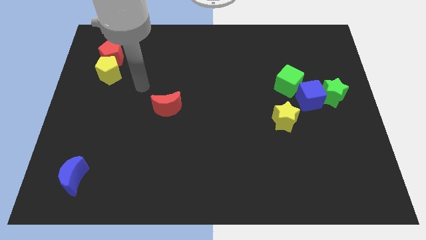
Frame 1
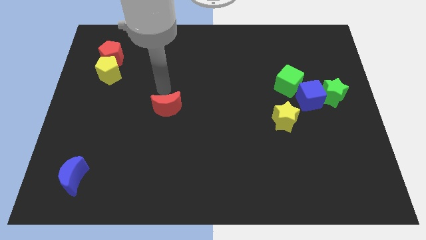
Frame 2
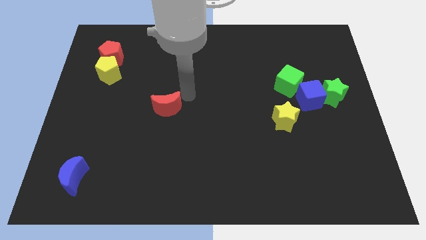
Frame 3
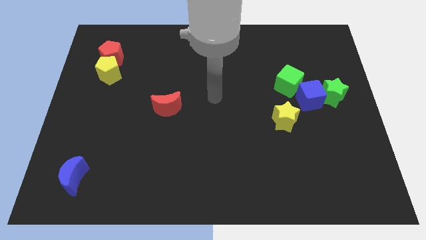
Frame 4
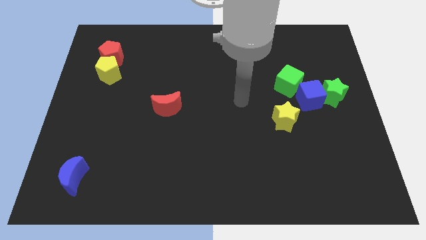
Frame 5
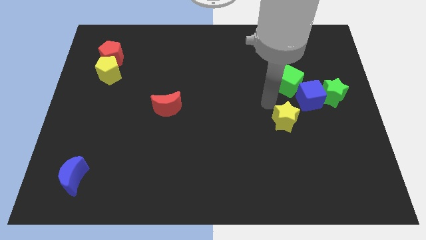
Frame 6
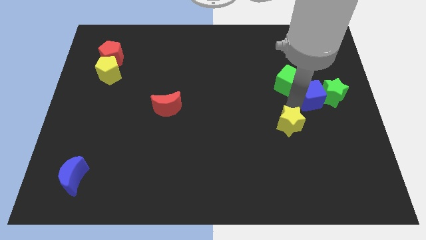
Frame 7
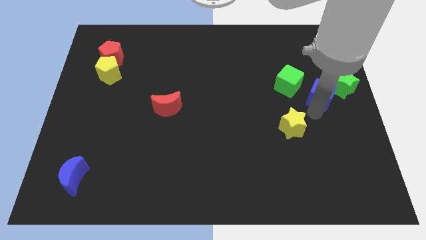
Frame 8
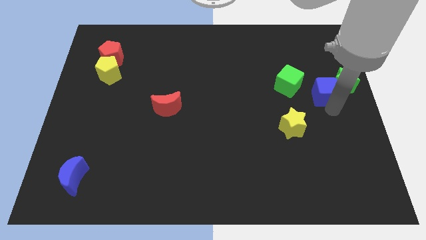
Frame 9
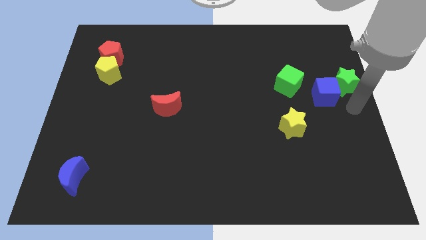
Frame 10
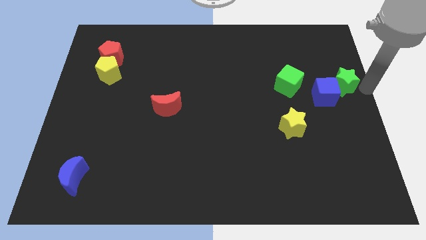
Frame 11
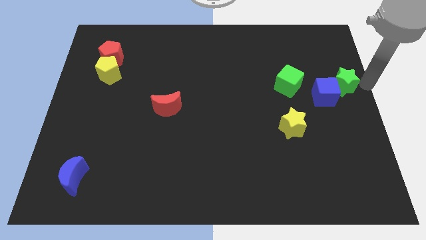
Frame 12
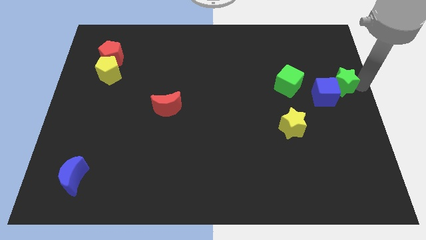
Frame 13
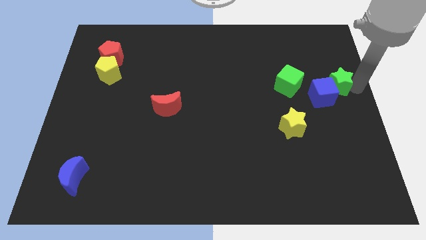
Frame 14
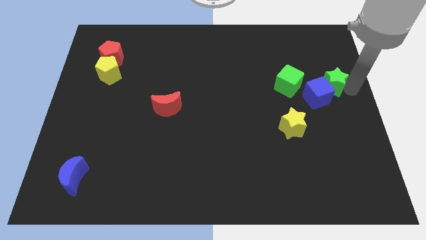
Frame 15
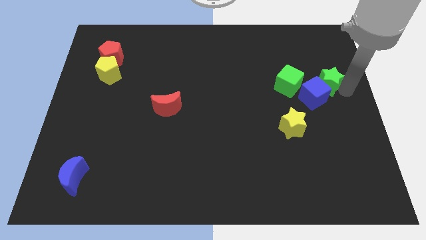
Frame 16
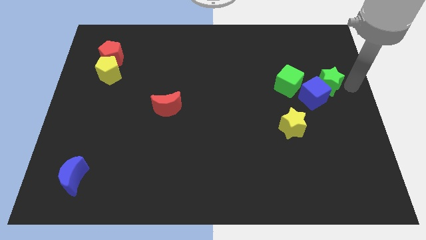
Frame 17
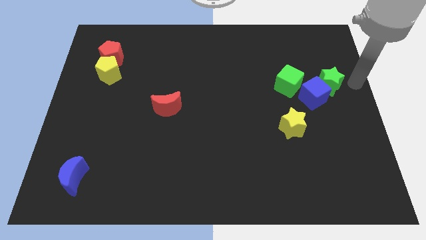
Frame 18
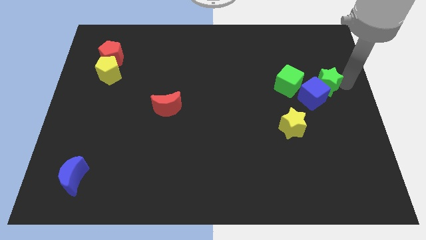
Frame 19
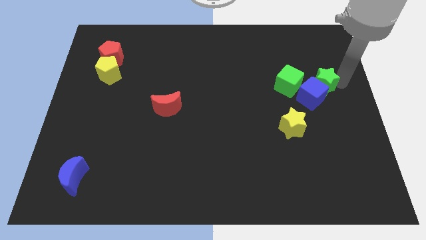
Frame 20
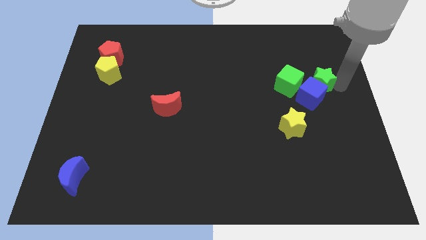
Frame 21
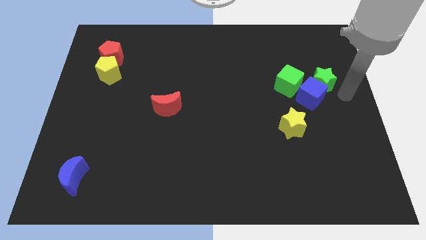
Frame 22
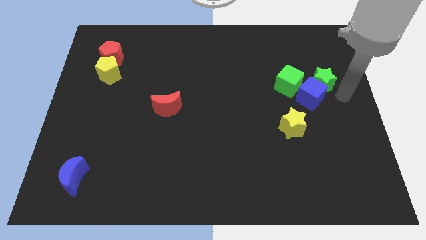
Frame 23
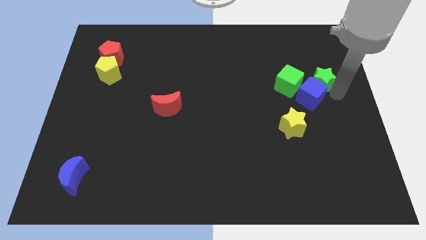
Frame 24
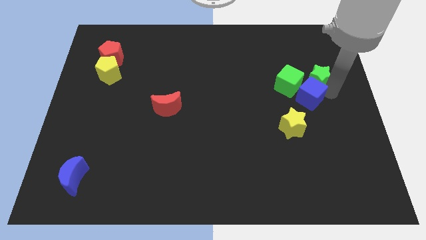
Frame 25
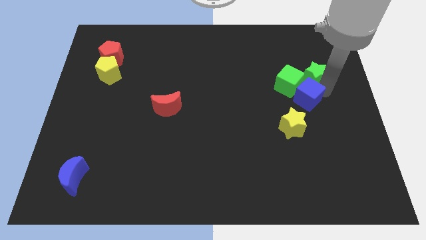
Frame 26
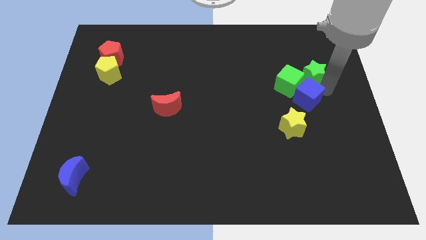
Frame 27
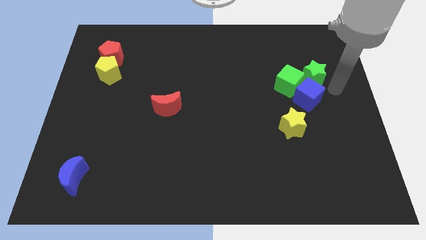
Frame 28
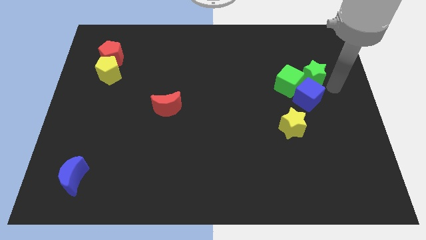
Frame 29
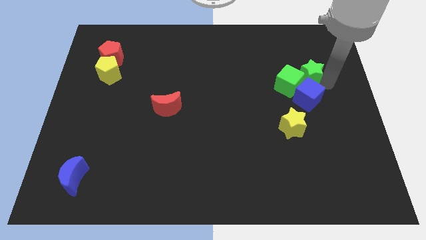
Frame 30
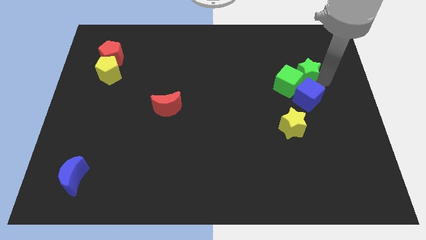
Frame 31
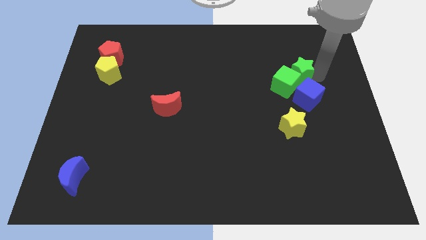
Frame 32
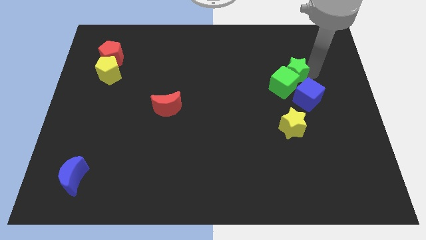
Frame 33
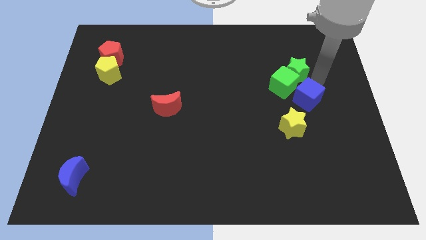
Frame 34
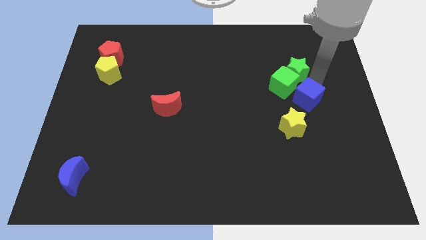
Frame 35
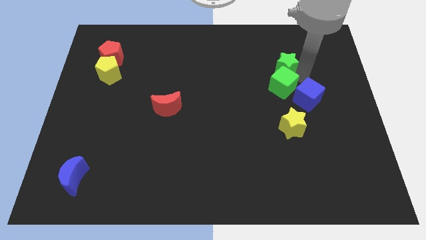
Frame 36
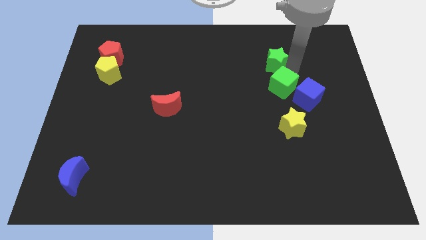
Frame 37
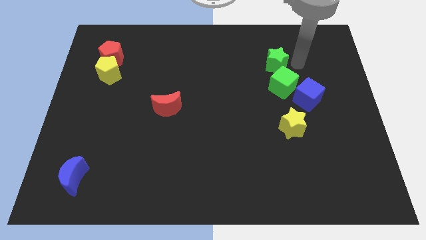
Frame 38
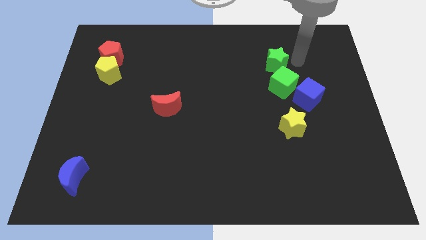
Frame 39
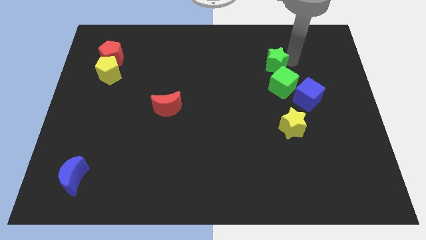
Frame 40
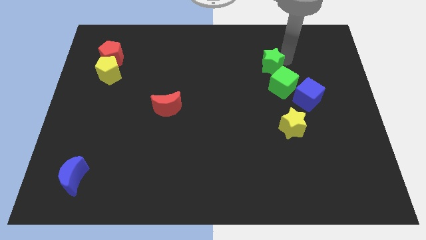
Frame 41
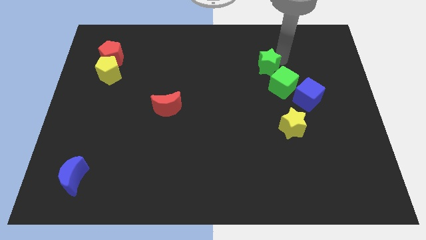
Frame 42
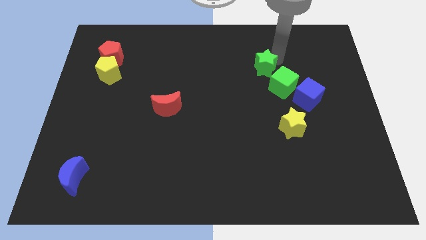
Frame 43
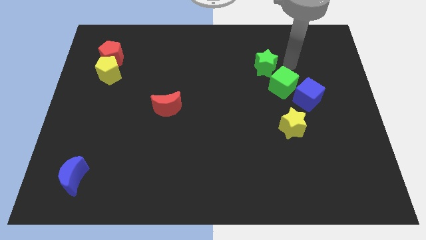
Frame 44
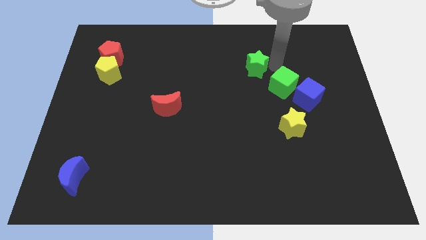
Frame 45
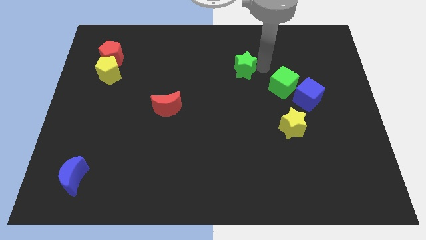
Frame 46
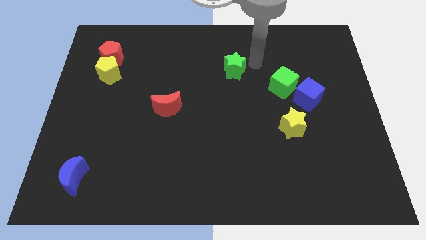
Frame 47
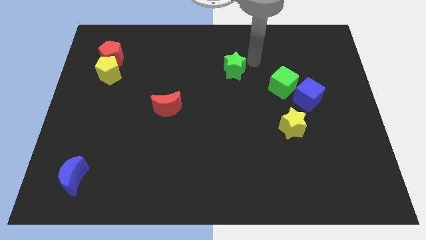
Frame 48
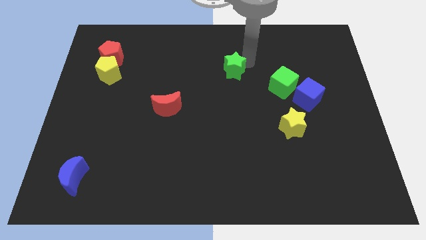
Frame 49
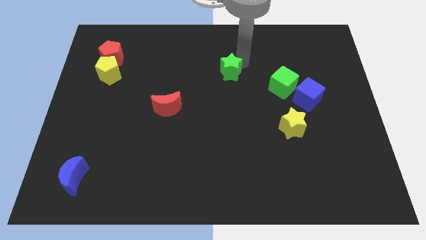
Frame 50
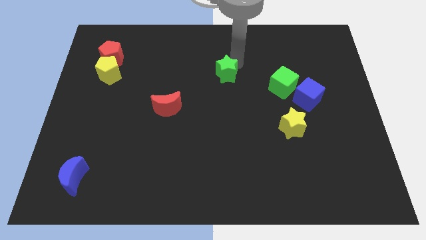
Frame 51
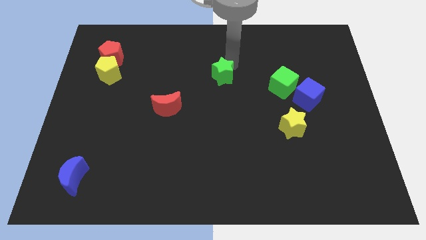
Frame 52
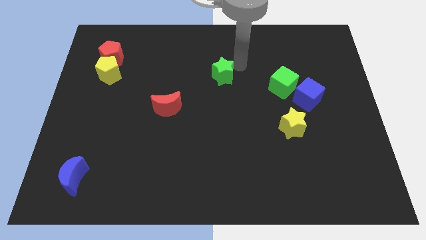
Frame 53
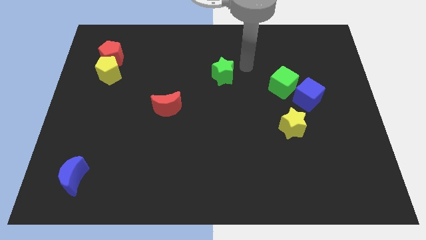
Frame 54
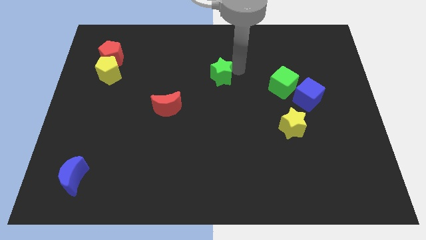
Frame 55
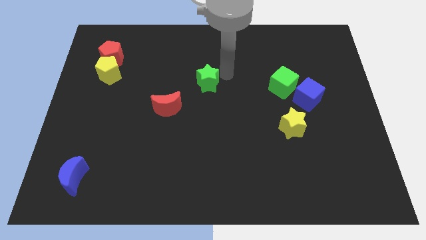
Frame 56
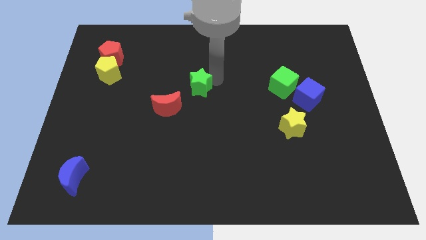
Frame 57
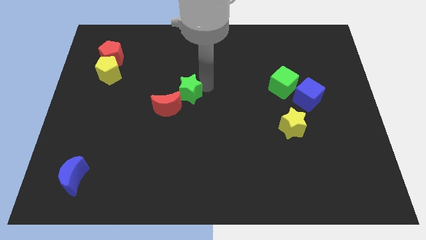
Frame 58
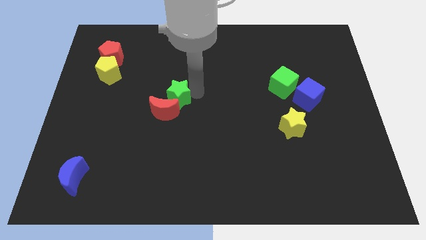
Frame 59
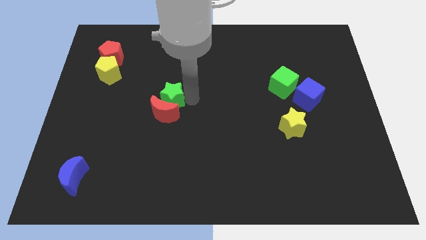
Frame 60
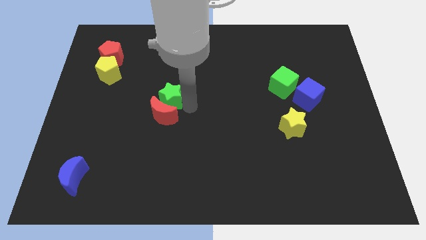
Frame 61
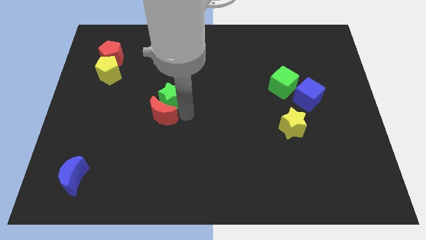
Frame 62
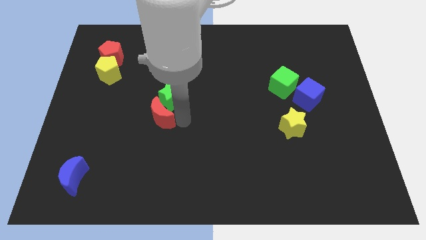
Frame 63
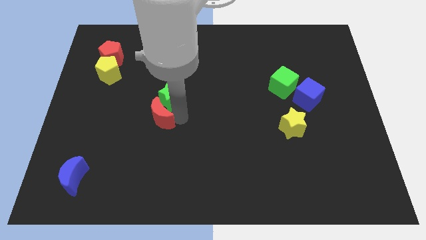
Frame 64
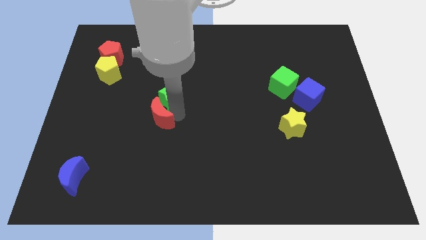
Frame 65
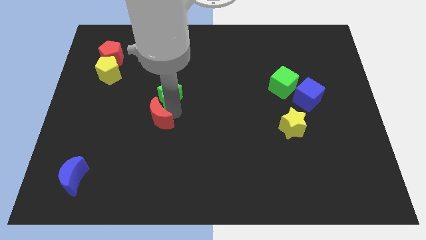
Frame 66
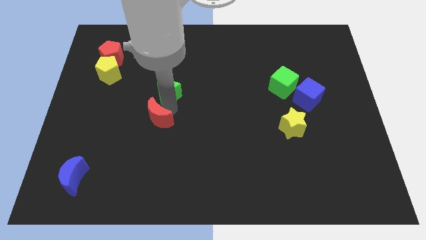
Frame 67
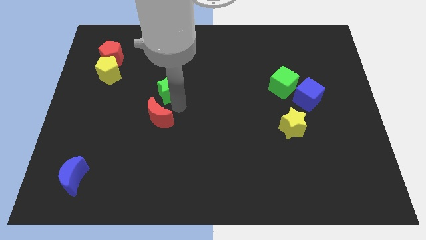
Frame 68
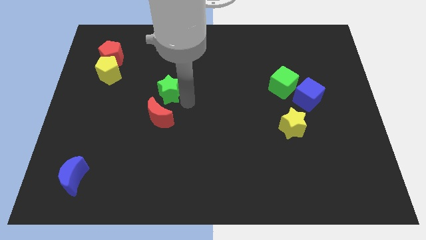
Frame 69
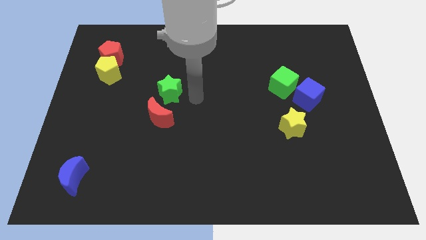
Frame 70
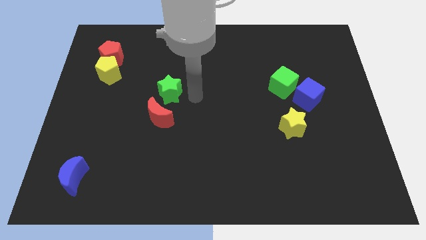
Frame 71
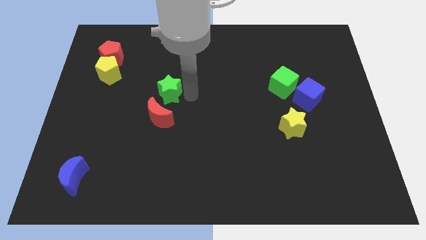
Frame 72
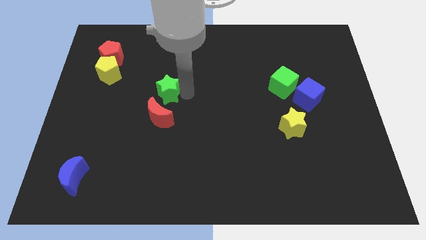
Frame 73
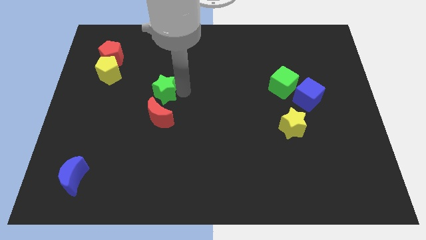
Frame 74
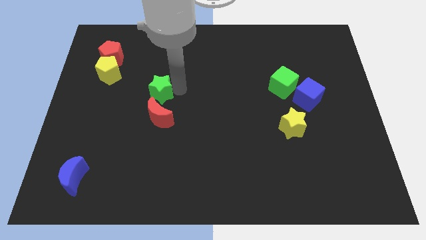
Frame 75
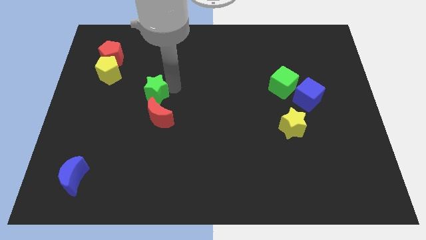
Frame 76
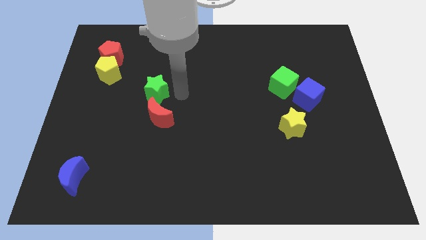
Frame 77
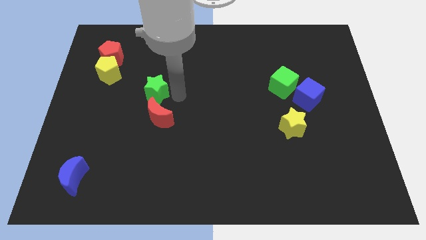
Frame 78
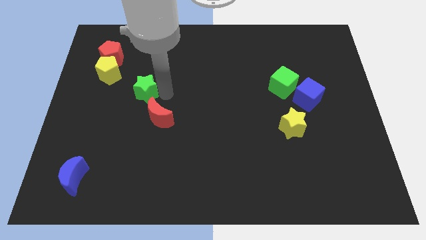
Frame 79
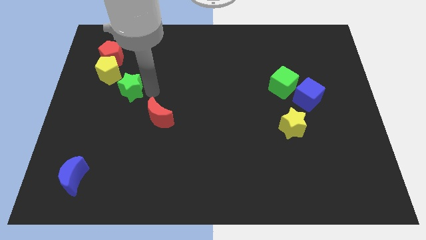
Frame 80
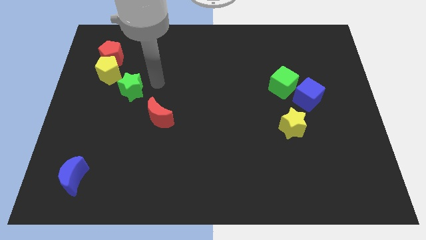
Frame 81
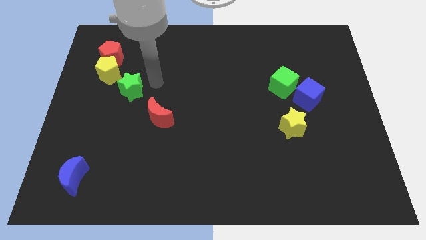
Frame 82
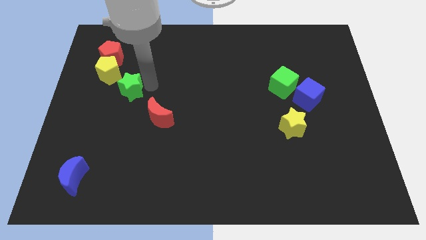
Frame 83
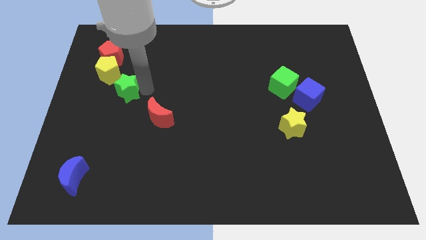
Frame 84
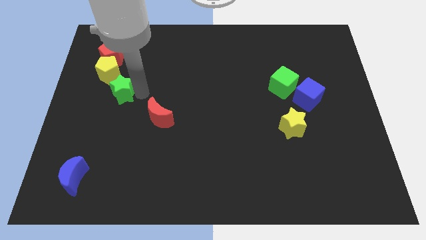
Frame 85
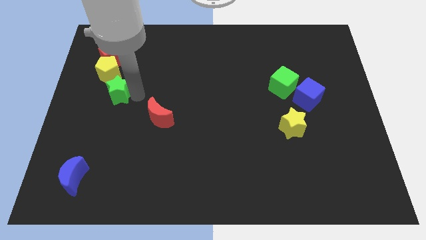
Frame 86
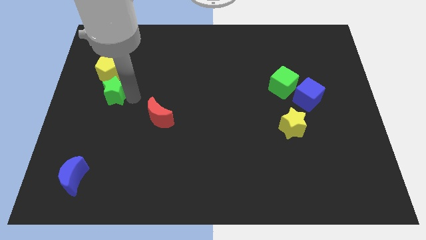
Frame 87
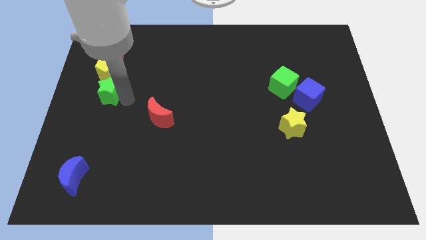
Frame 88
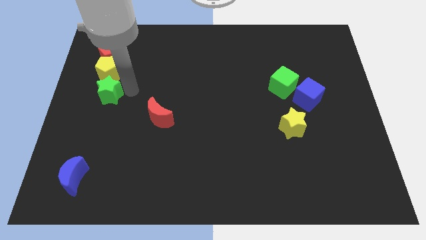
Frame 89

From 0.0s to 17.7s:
push the green star to the center left
